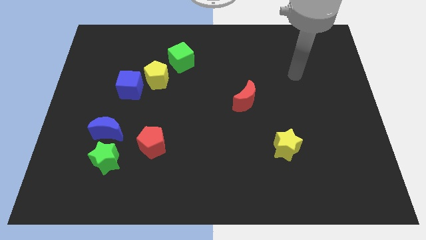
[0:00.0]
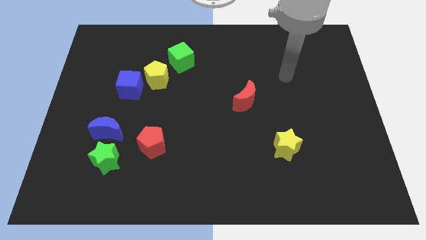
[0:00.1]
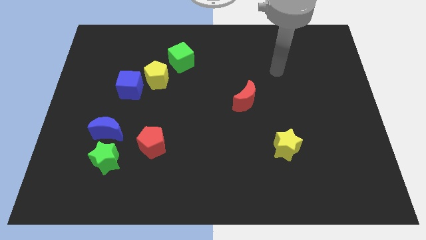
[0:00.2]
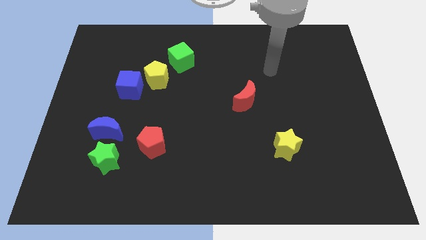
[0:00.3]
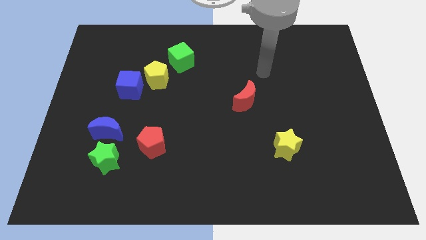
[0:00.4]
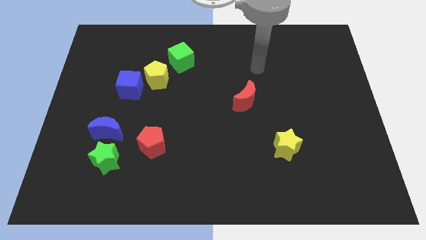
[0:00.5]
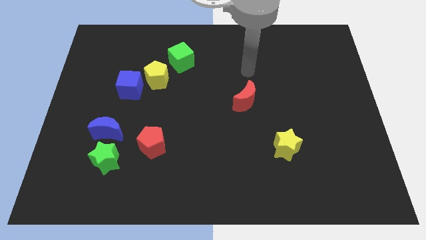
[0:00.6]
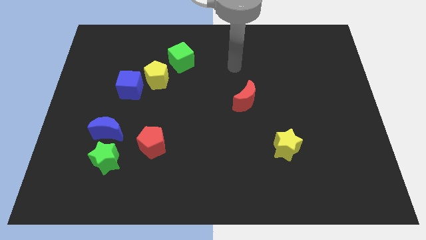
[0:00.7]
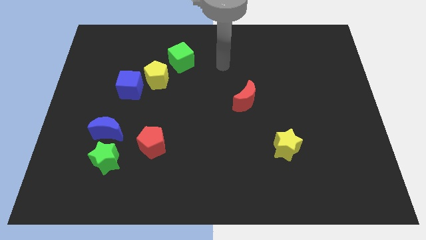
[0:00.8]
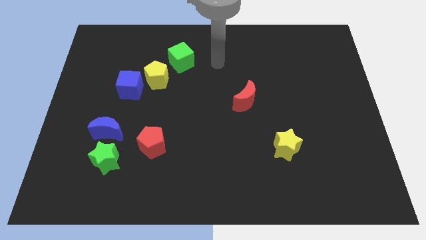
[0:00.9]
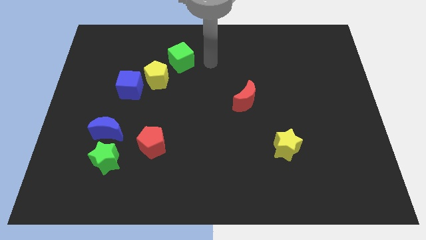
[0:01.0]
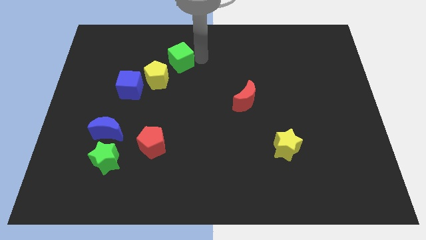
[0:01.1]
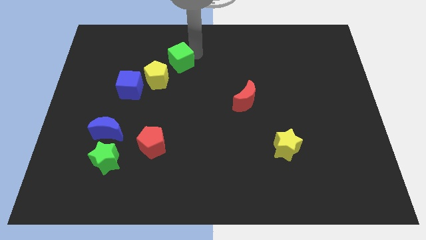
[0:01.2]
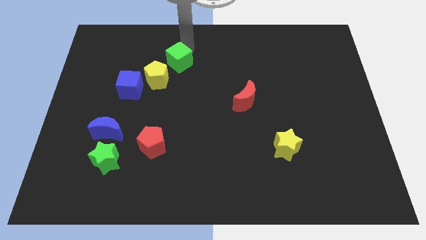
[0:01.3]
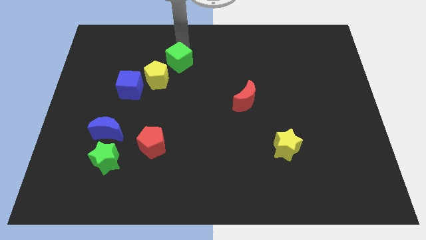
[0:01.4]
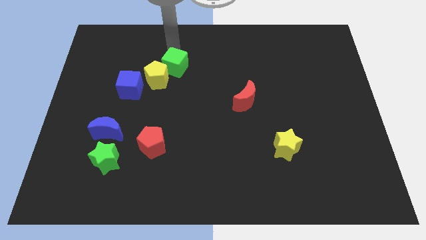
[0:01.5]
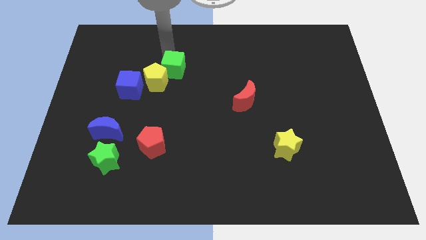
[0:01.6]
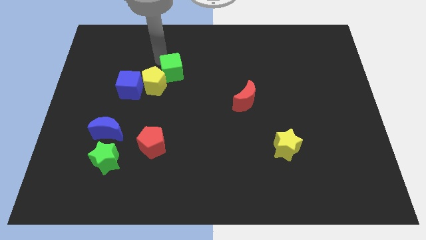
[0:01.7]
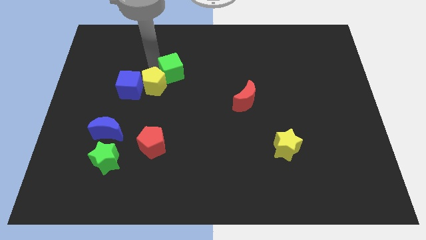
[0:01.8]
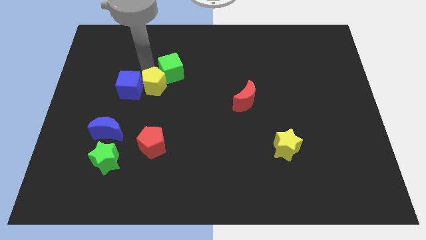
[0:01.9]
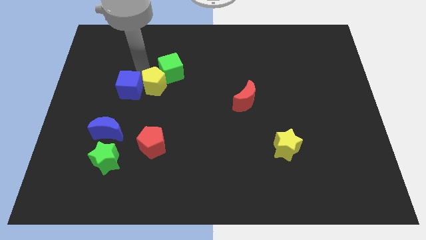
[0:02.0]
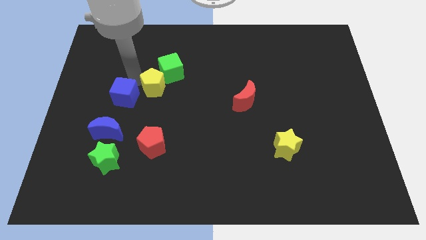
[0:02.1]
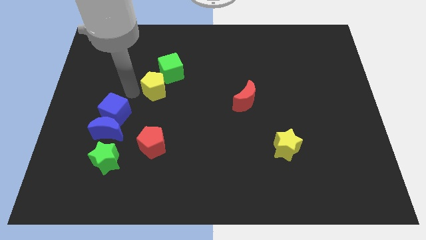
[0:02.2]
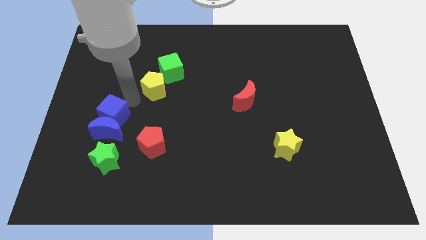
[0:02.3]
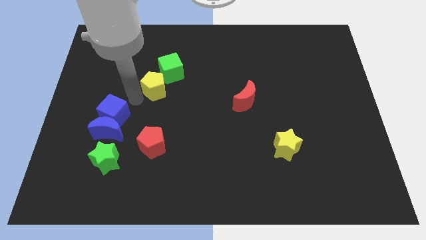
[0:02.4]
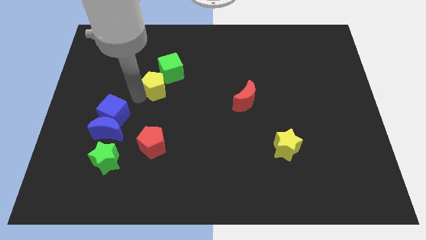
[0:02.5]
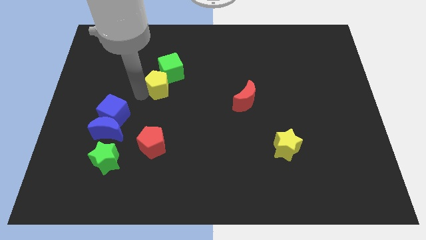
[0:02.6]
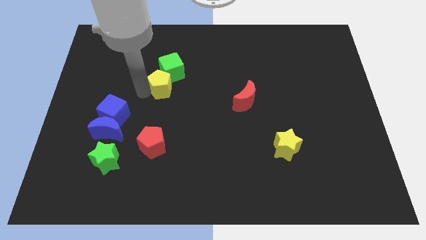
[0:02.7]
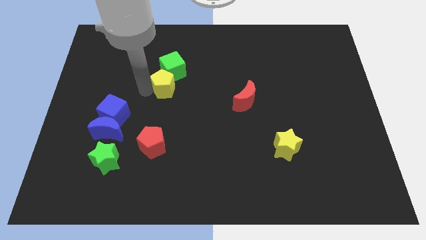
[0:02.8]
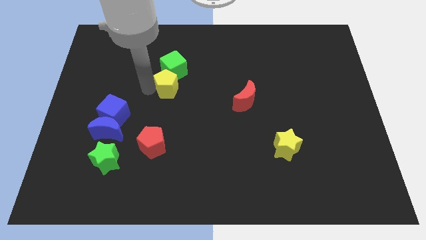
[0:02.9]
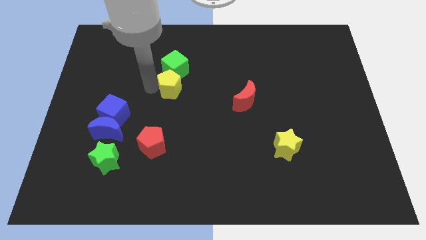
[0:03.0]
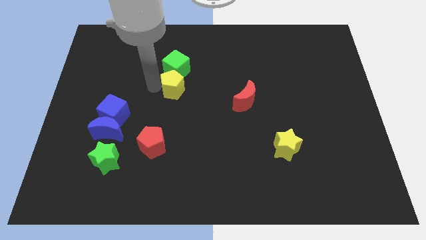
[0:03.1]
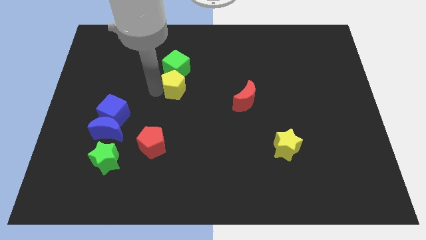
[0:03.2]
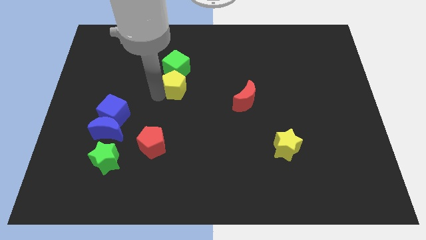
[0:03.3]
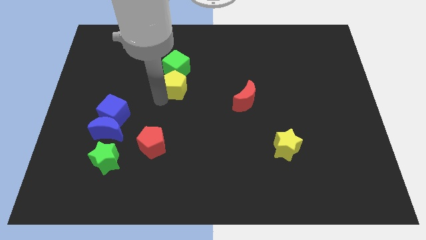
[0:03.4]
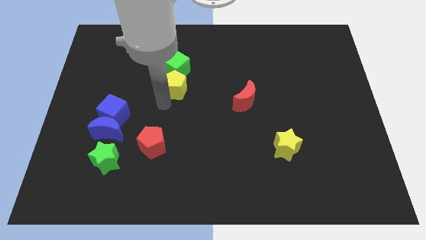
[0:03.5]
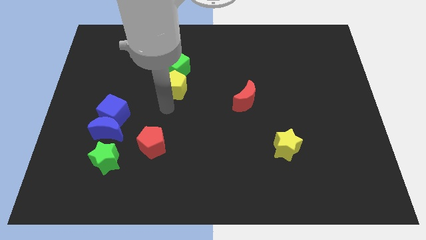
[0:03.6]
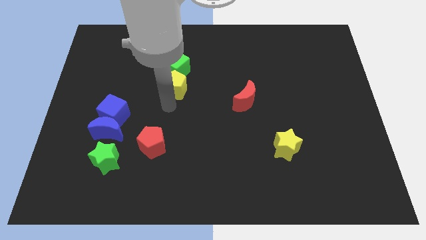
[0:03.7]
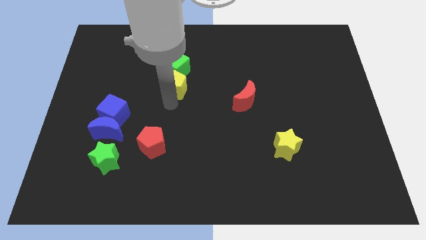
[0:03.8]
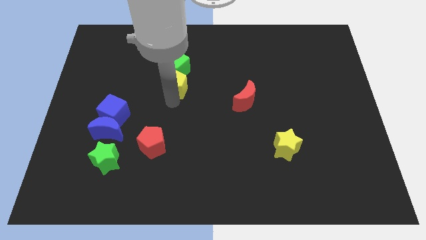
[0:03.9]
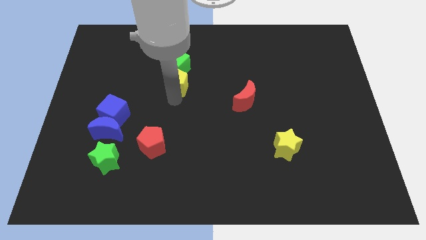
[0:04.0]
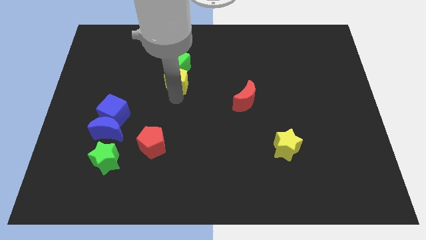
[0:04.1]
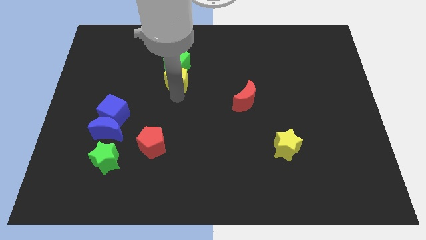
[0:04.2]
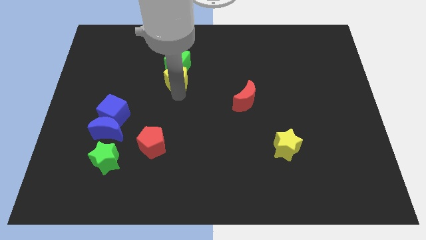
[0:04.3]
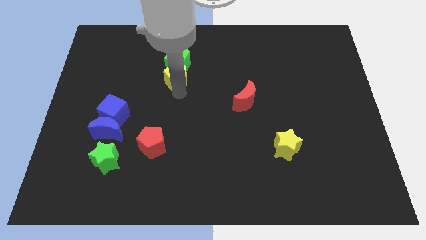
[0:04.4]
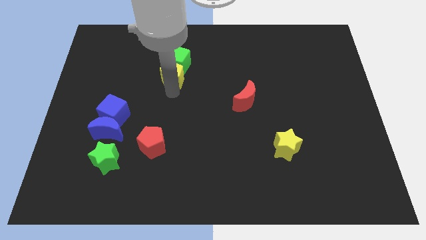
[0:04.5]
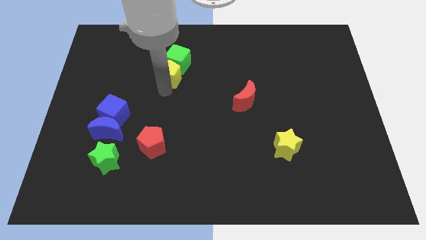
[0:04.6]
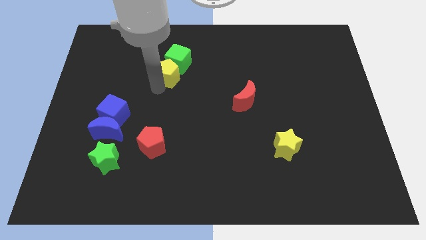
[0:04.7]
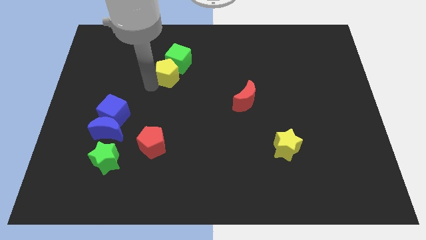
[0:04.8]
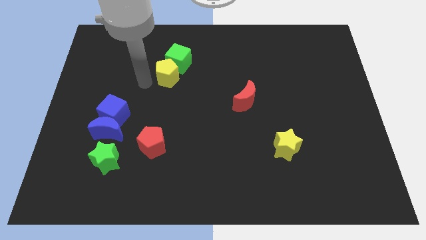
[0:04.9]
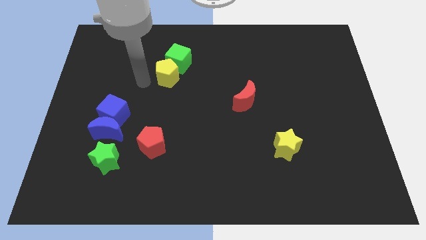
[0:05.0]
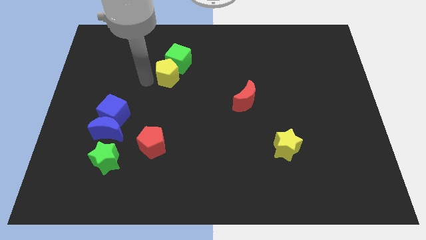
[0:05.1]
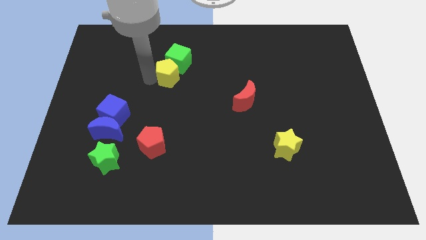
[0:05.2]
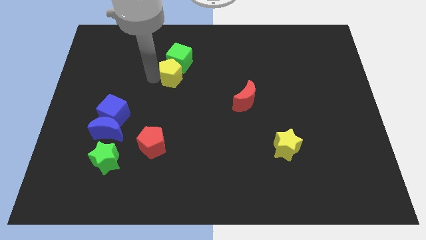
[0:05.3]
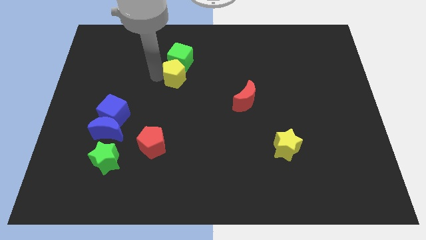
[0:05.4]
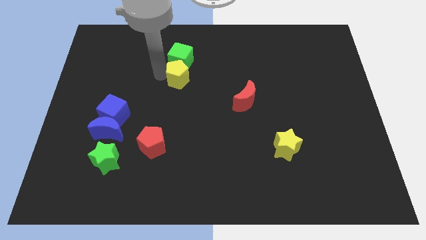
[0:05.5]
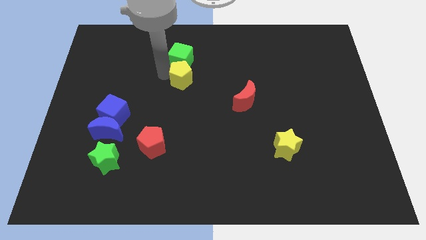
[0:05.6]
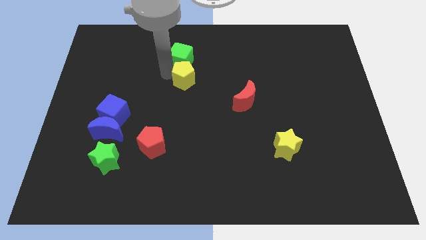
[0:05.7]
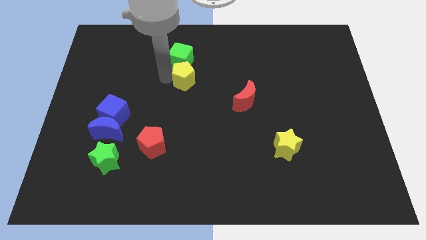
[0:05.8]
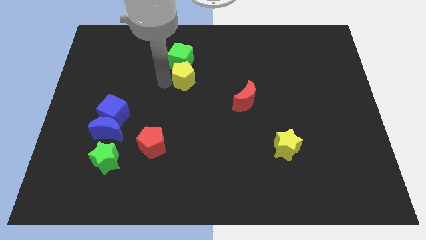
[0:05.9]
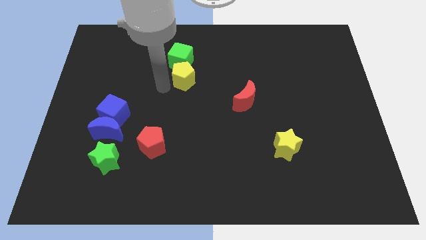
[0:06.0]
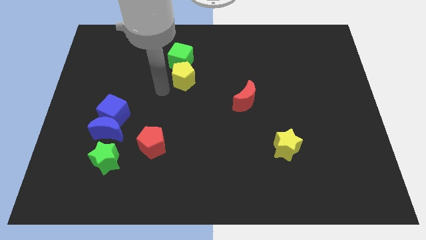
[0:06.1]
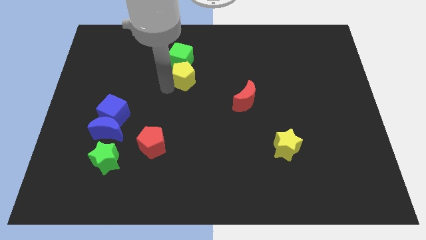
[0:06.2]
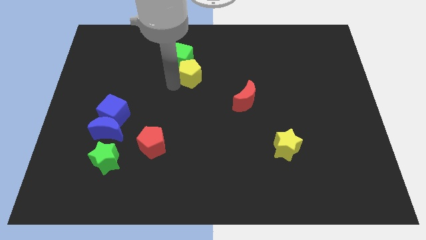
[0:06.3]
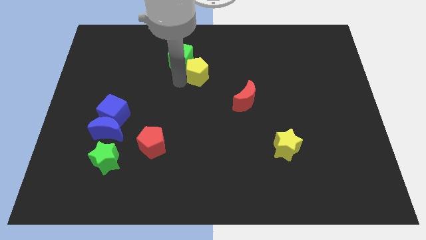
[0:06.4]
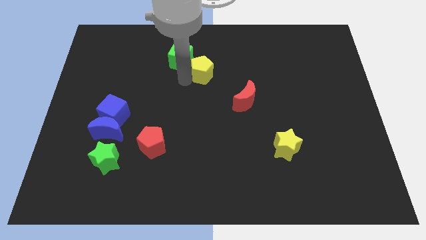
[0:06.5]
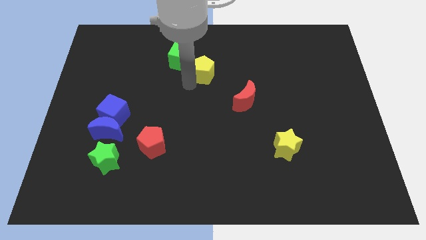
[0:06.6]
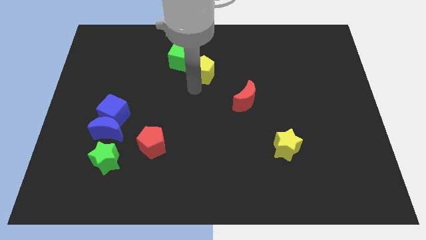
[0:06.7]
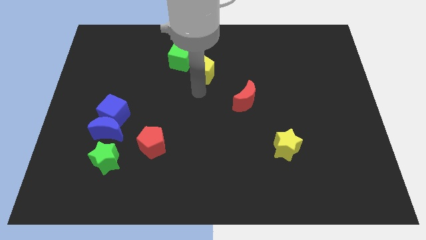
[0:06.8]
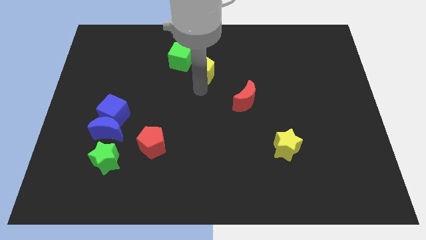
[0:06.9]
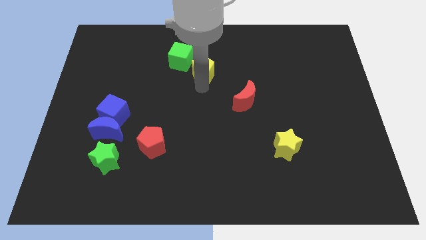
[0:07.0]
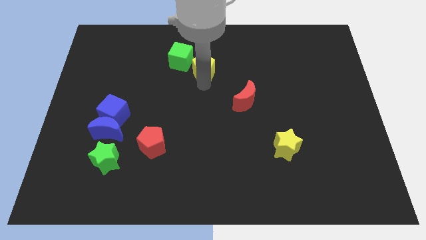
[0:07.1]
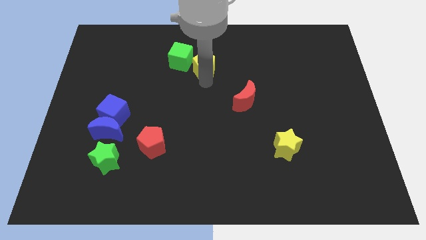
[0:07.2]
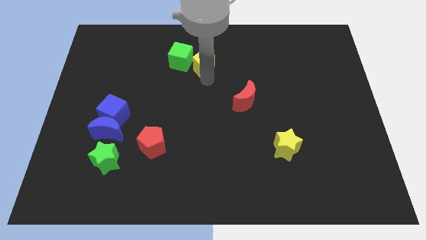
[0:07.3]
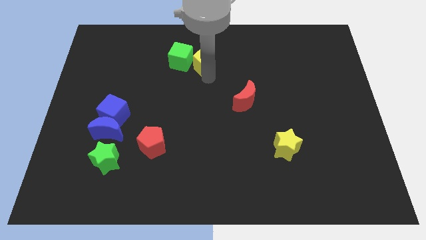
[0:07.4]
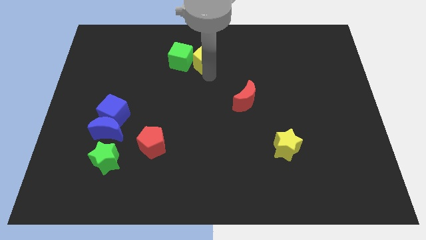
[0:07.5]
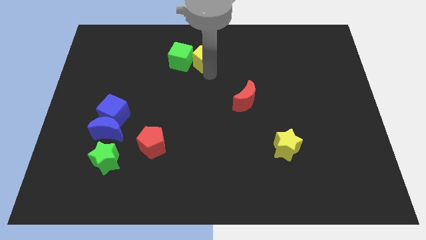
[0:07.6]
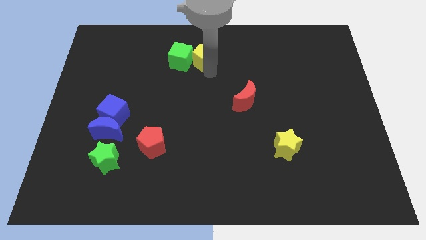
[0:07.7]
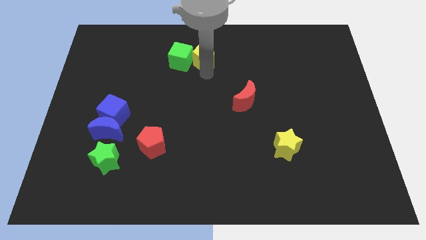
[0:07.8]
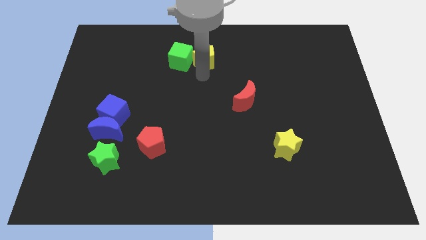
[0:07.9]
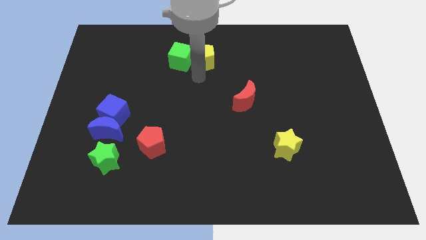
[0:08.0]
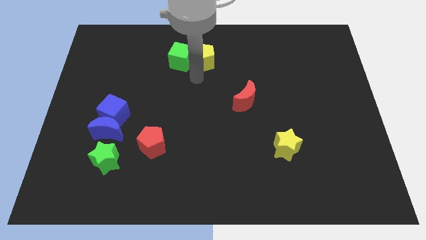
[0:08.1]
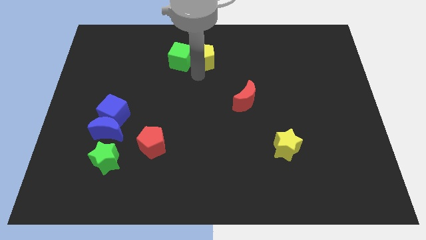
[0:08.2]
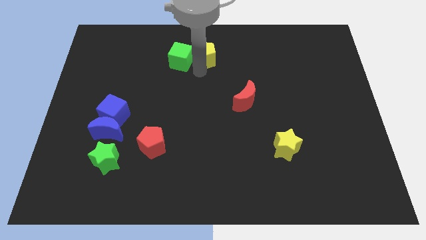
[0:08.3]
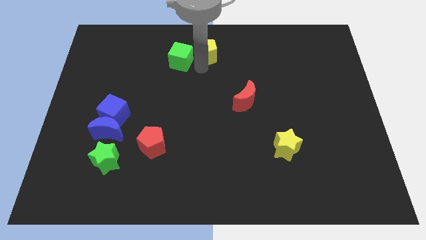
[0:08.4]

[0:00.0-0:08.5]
push the yellow pentagon to the top side
